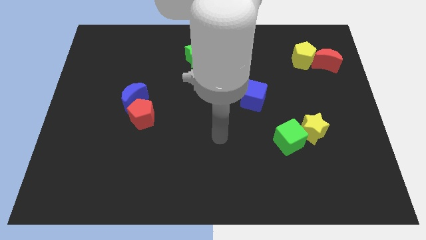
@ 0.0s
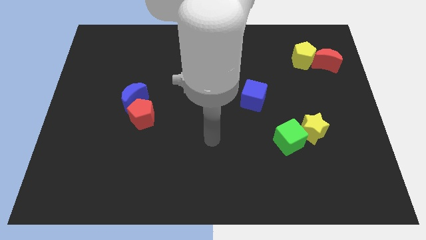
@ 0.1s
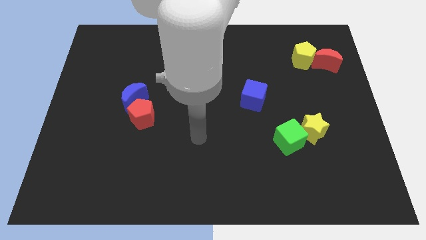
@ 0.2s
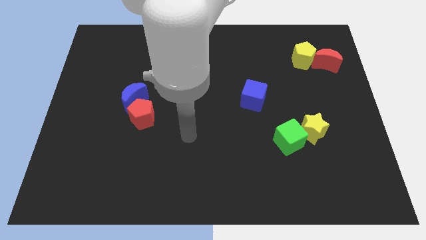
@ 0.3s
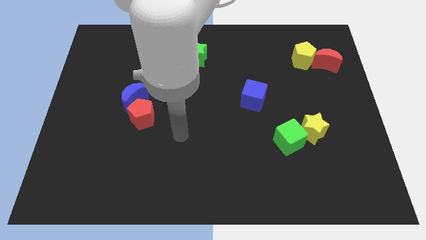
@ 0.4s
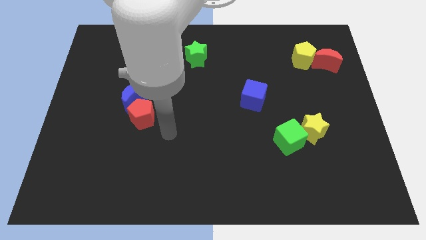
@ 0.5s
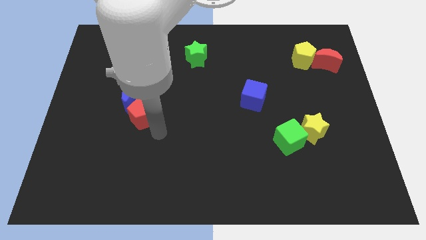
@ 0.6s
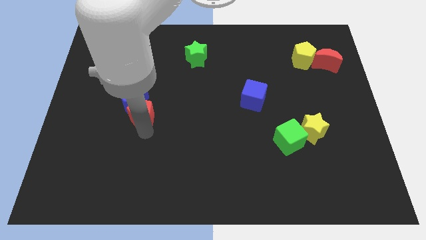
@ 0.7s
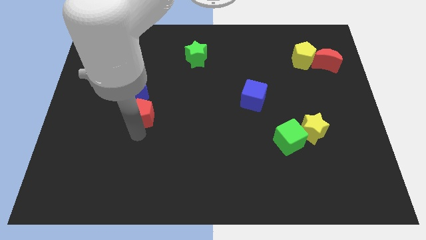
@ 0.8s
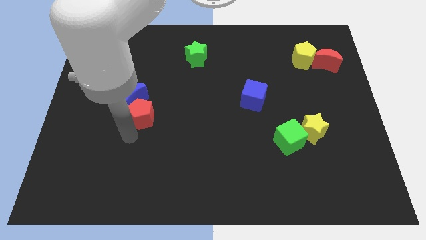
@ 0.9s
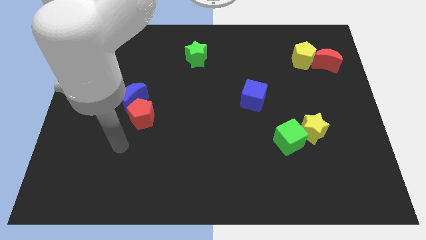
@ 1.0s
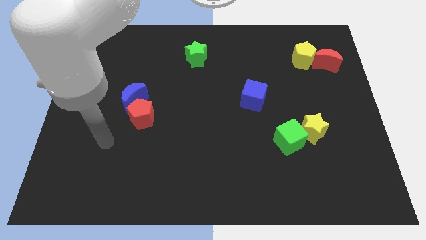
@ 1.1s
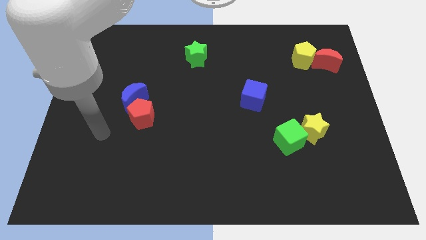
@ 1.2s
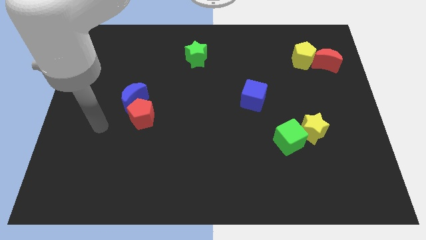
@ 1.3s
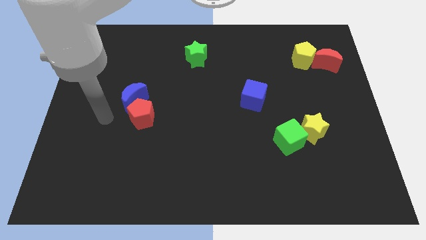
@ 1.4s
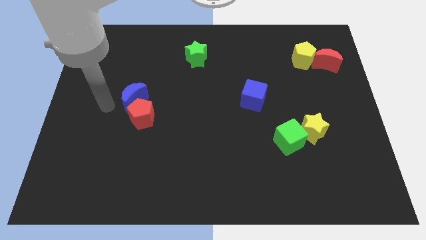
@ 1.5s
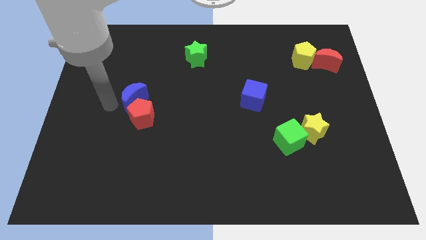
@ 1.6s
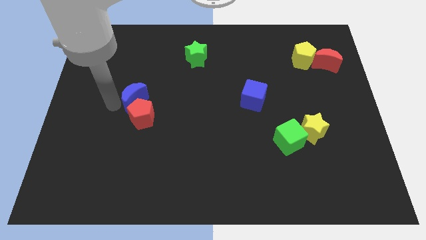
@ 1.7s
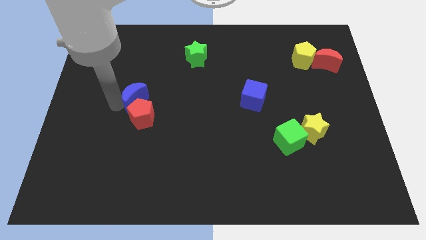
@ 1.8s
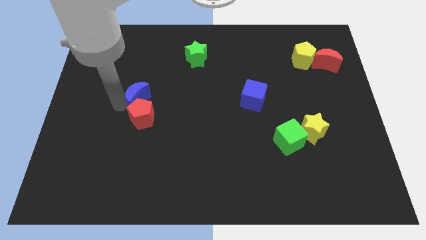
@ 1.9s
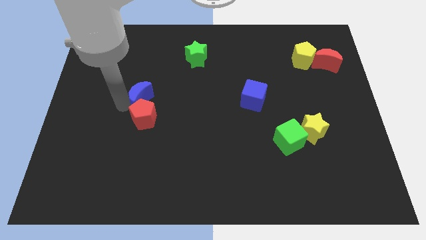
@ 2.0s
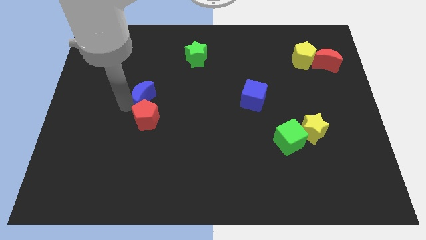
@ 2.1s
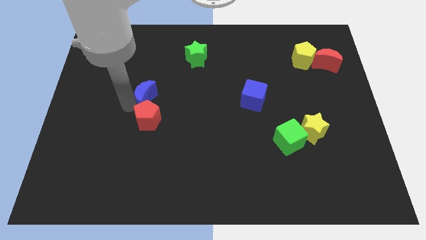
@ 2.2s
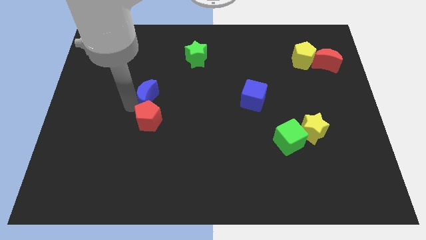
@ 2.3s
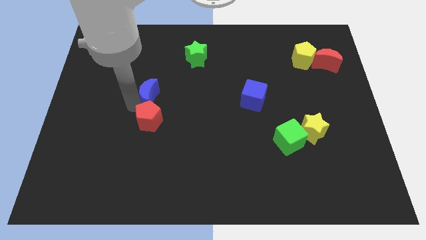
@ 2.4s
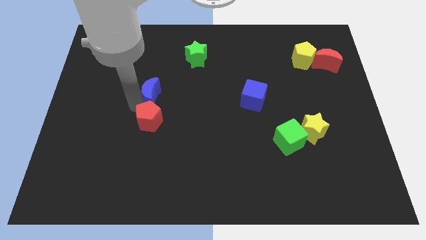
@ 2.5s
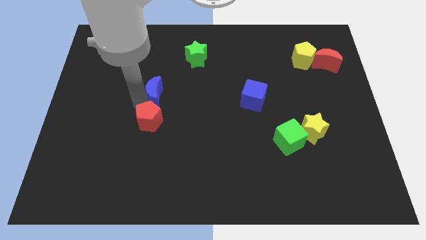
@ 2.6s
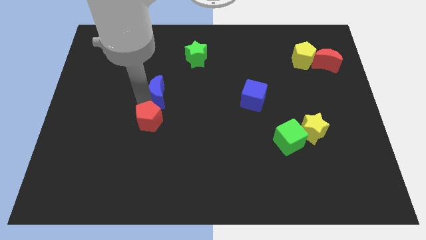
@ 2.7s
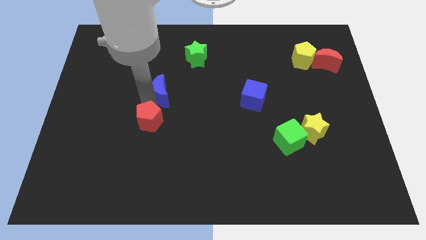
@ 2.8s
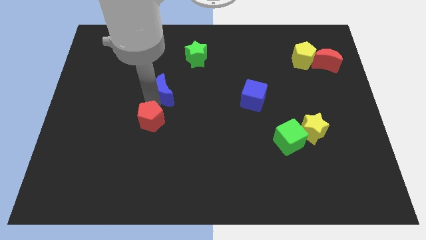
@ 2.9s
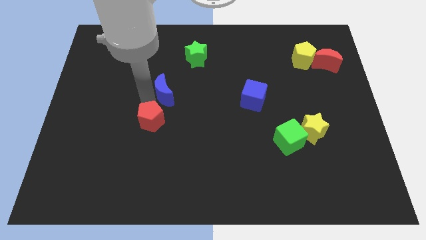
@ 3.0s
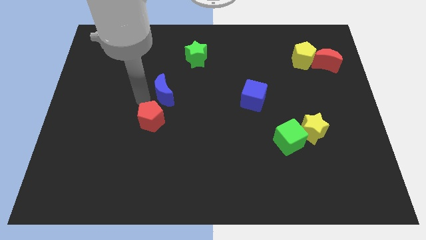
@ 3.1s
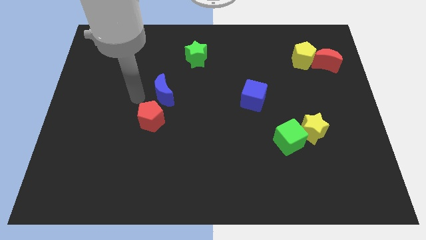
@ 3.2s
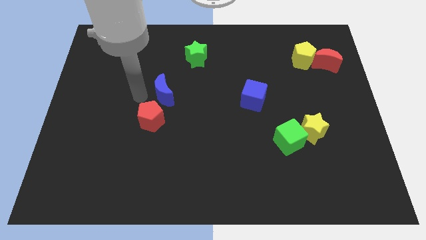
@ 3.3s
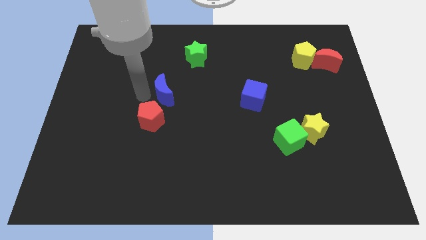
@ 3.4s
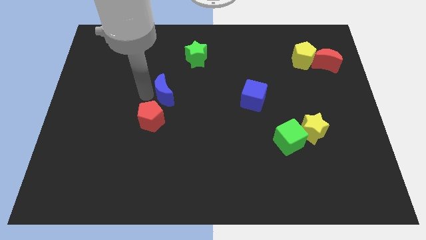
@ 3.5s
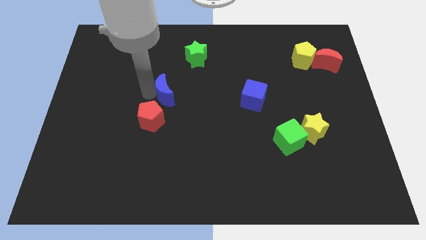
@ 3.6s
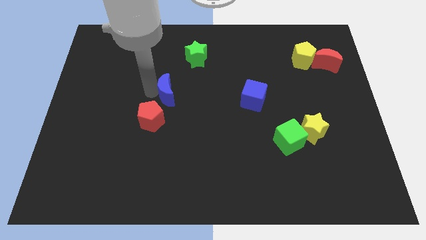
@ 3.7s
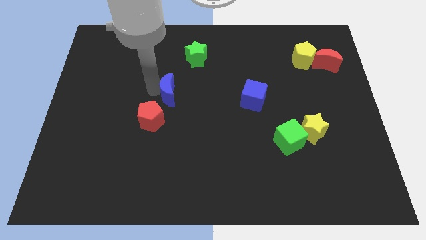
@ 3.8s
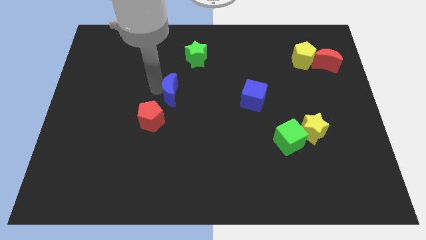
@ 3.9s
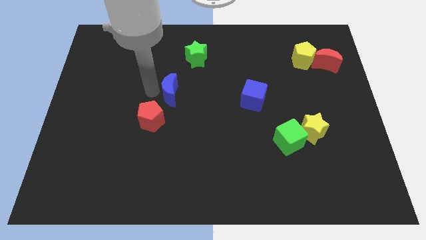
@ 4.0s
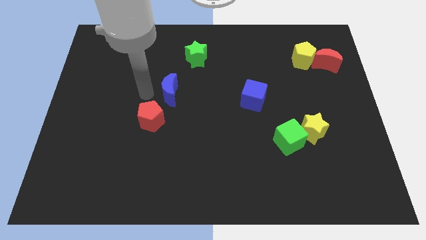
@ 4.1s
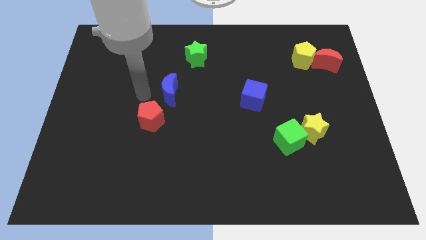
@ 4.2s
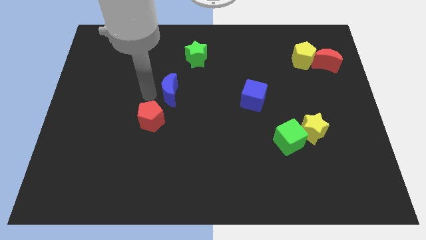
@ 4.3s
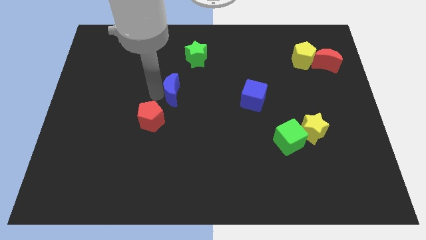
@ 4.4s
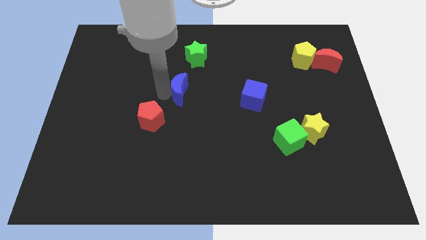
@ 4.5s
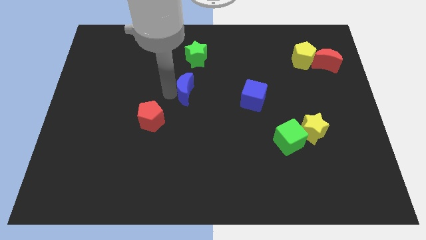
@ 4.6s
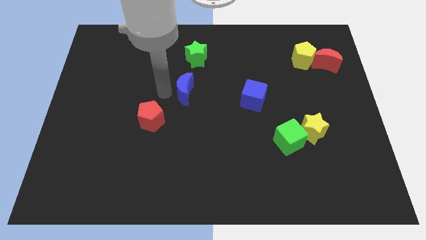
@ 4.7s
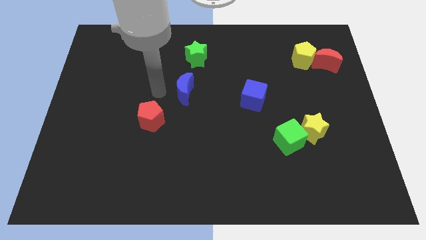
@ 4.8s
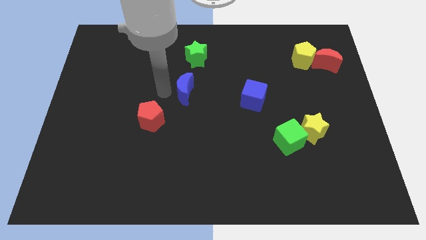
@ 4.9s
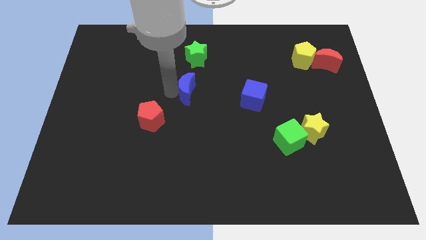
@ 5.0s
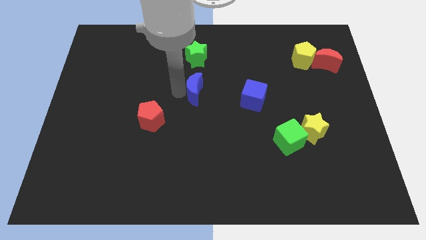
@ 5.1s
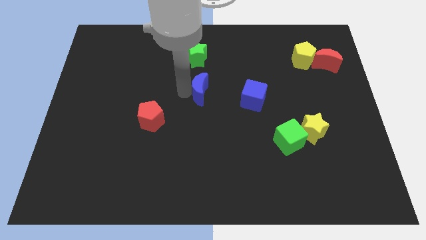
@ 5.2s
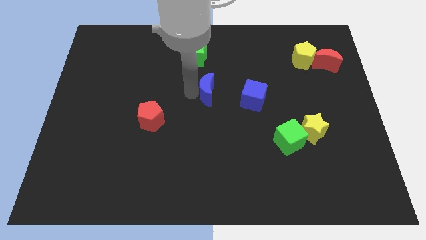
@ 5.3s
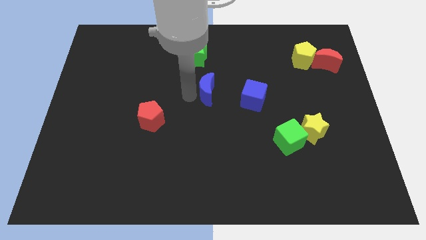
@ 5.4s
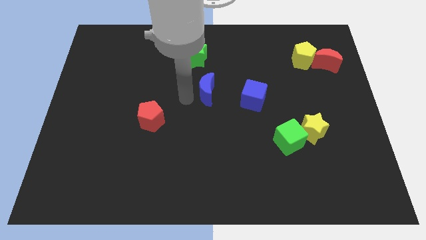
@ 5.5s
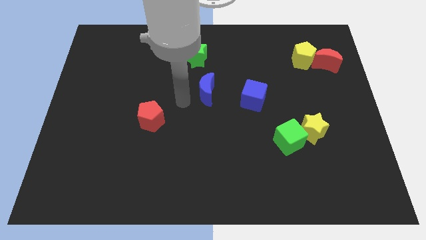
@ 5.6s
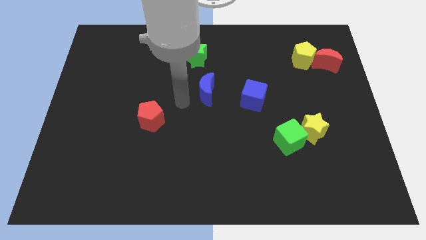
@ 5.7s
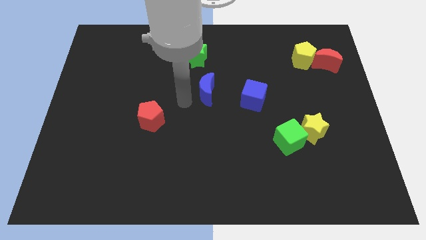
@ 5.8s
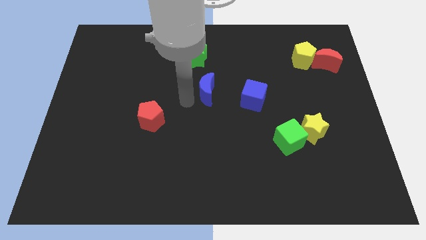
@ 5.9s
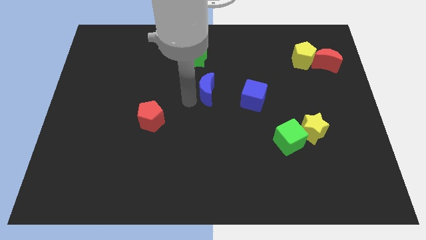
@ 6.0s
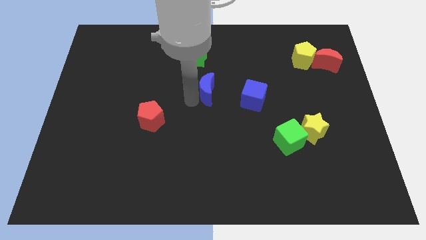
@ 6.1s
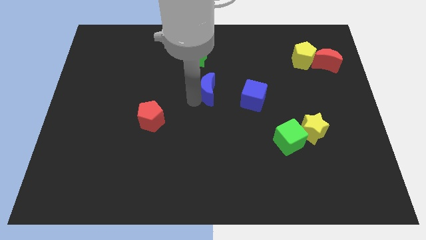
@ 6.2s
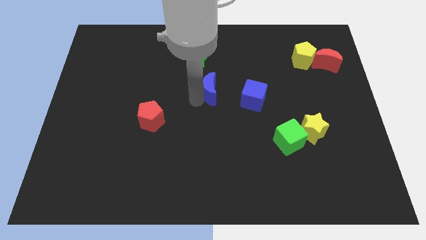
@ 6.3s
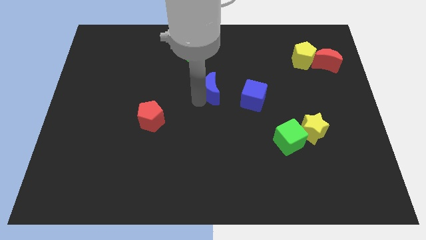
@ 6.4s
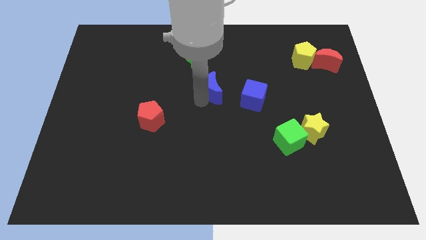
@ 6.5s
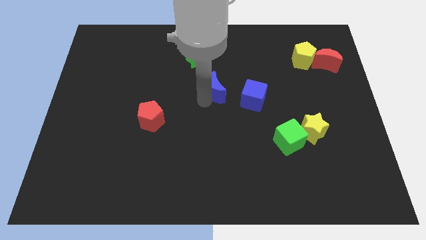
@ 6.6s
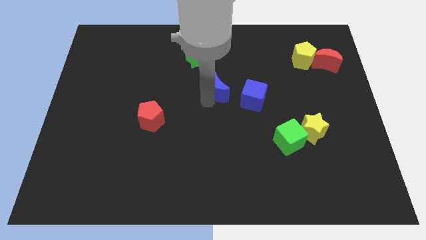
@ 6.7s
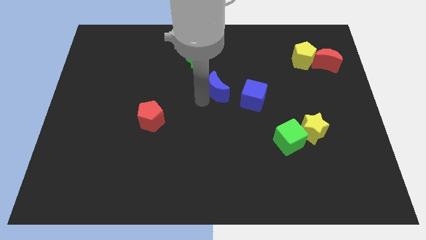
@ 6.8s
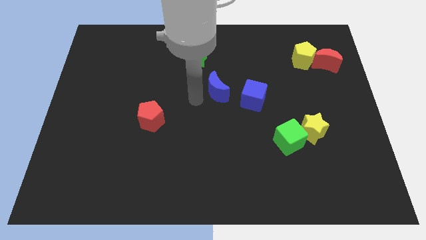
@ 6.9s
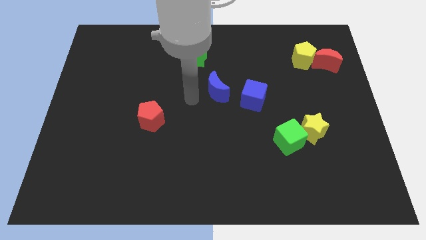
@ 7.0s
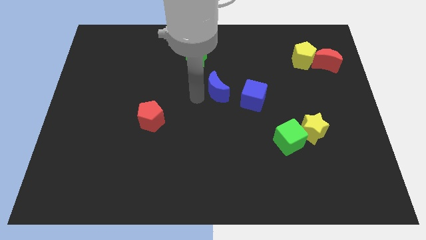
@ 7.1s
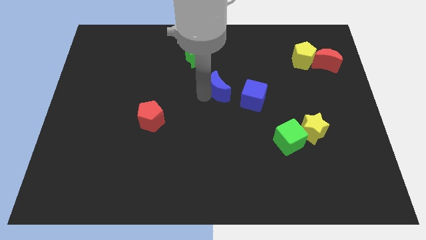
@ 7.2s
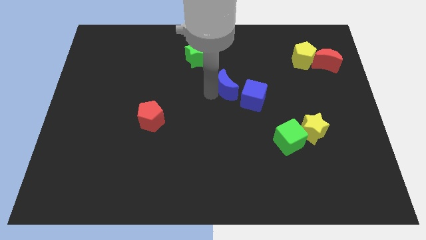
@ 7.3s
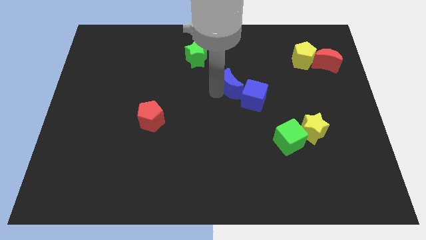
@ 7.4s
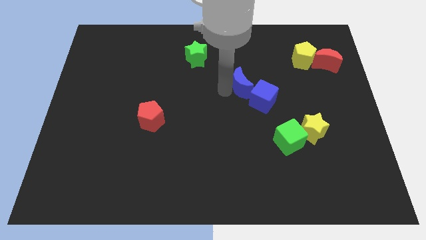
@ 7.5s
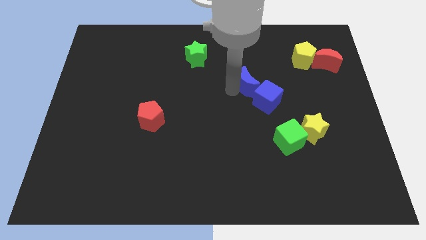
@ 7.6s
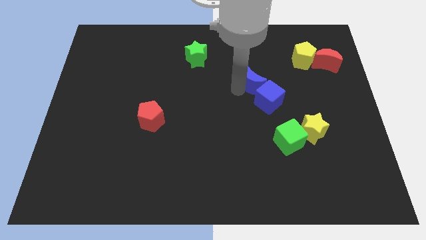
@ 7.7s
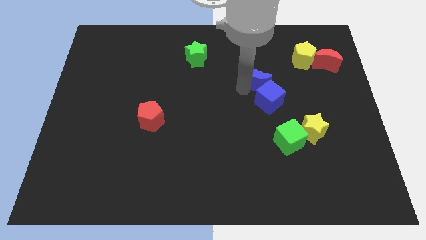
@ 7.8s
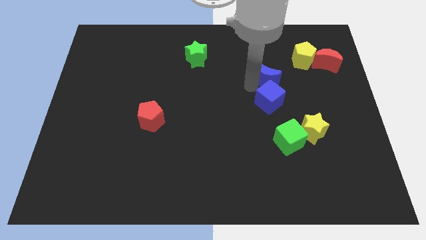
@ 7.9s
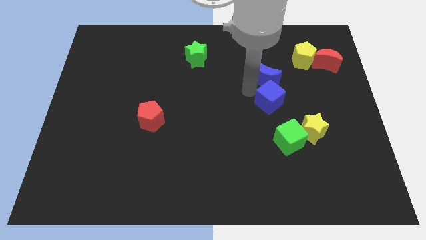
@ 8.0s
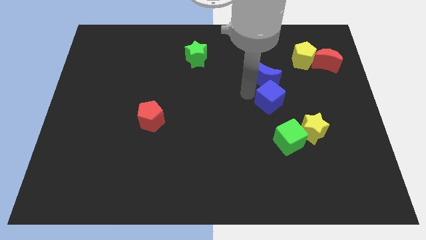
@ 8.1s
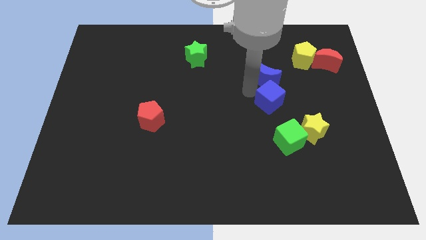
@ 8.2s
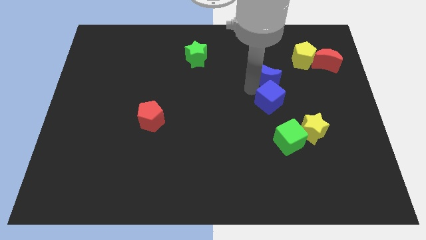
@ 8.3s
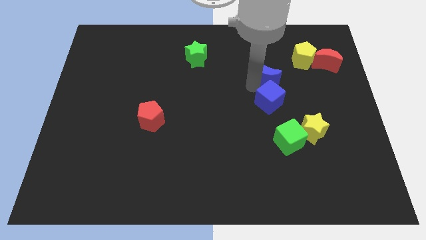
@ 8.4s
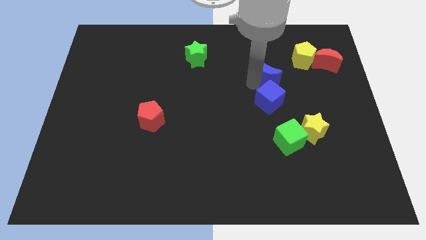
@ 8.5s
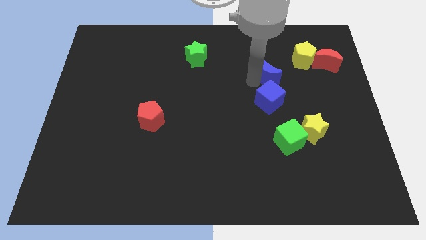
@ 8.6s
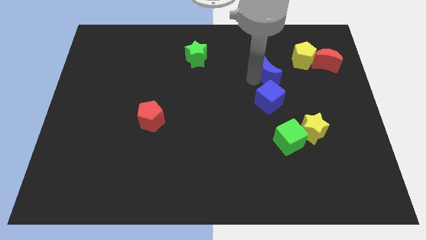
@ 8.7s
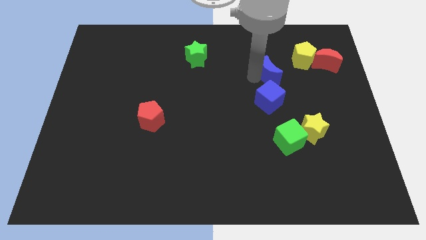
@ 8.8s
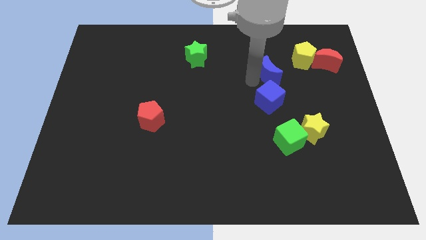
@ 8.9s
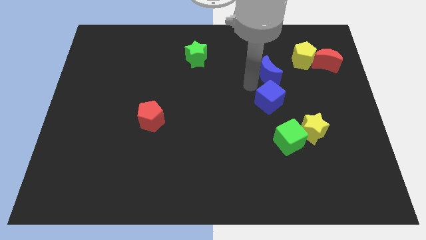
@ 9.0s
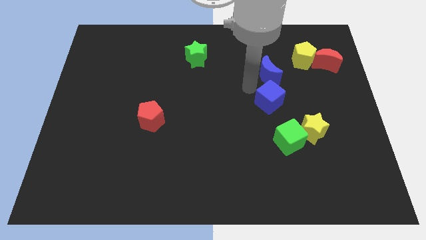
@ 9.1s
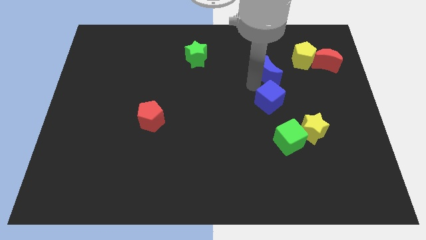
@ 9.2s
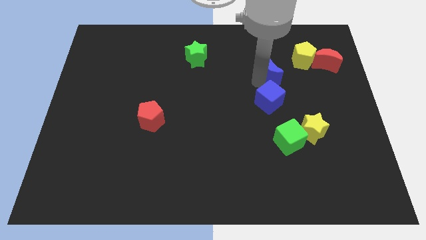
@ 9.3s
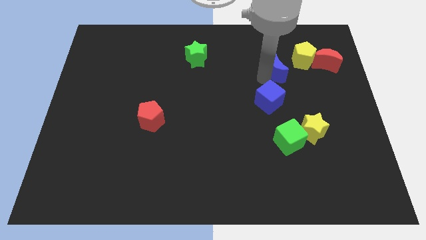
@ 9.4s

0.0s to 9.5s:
slide the blue moon to the left side of the red moon
